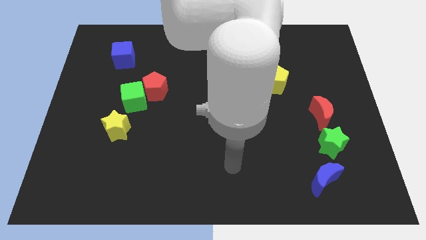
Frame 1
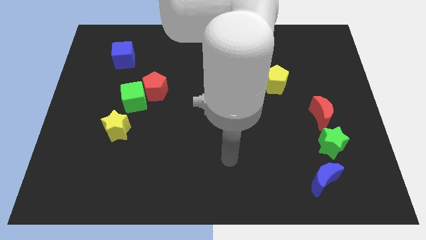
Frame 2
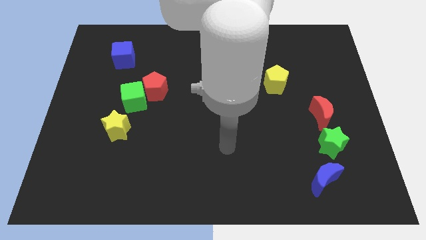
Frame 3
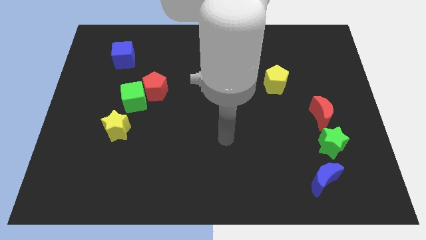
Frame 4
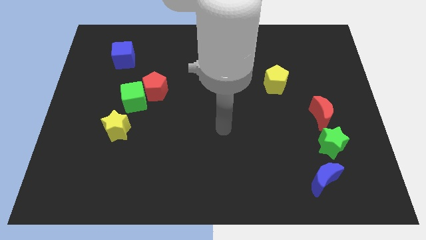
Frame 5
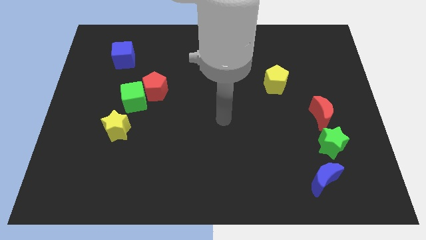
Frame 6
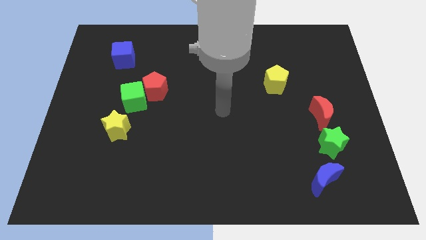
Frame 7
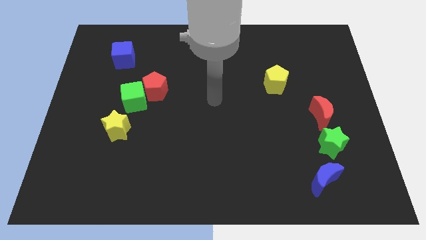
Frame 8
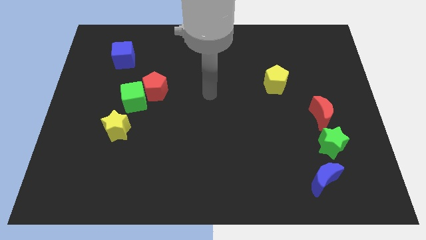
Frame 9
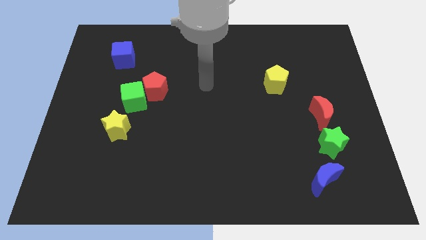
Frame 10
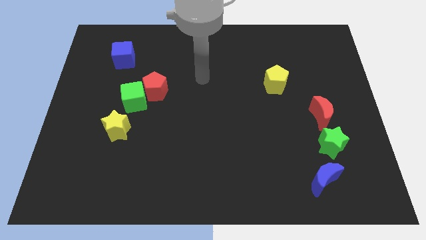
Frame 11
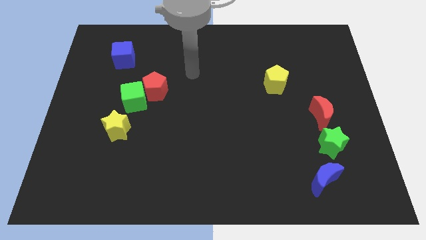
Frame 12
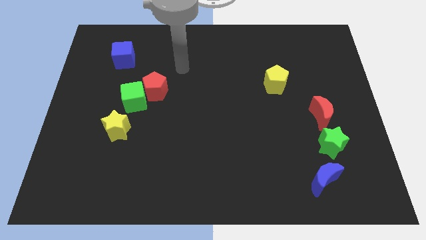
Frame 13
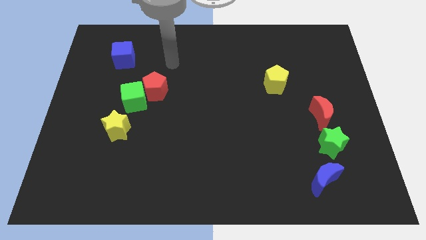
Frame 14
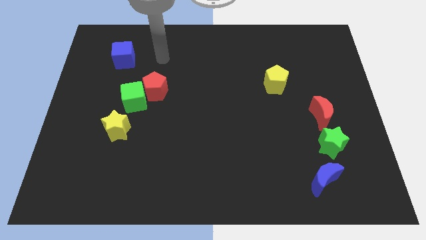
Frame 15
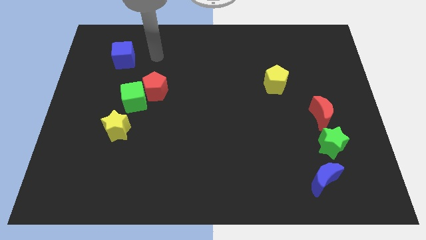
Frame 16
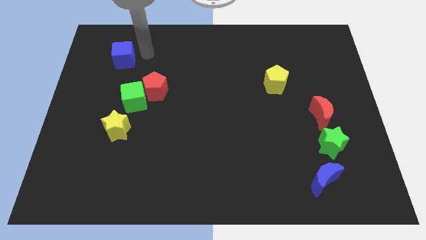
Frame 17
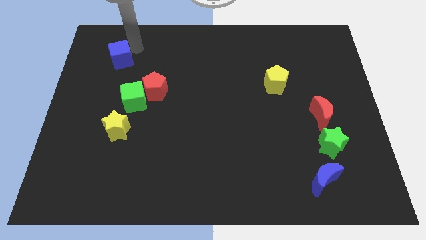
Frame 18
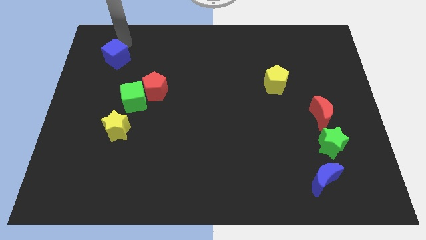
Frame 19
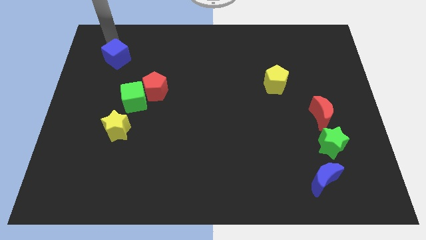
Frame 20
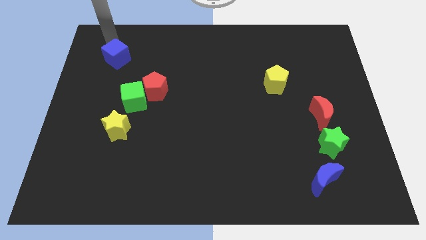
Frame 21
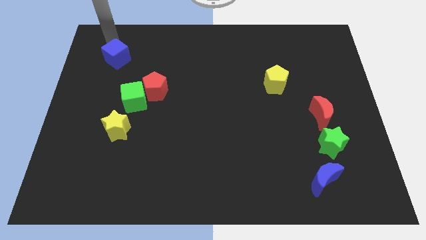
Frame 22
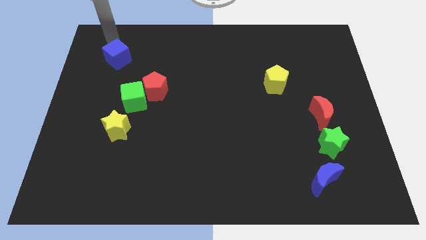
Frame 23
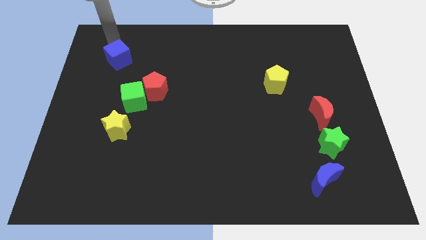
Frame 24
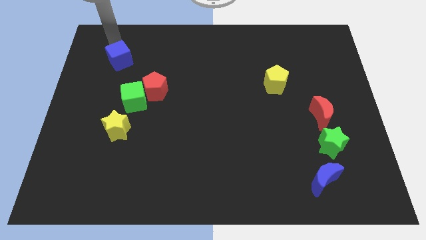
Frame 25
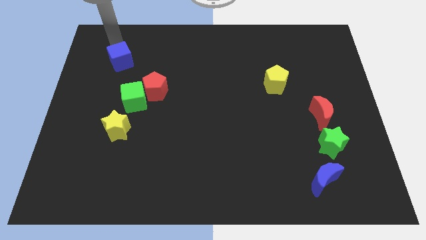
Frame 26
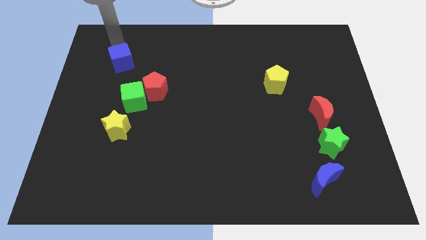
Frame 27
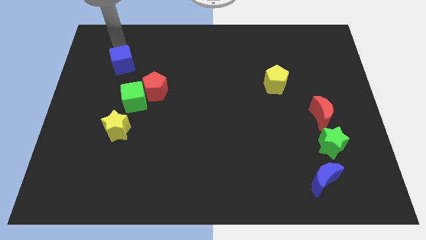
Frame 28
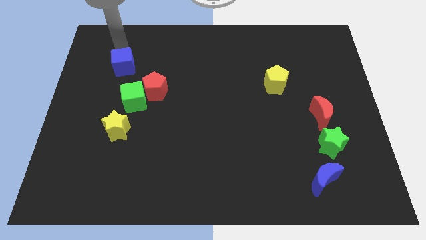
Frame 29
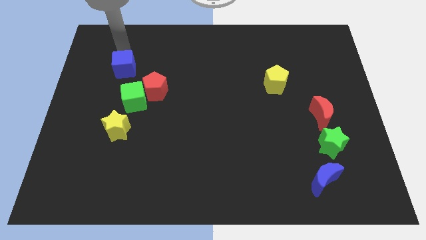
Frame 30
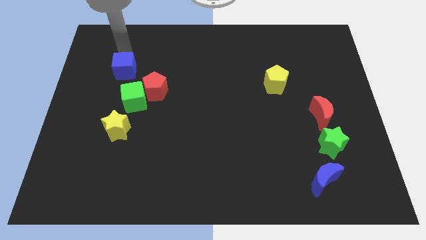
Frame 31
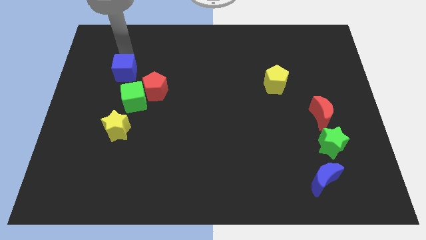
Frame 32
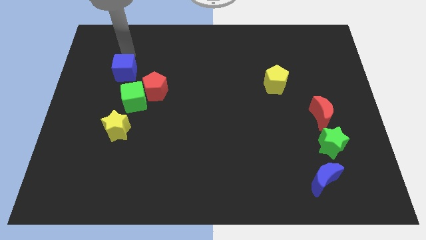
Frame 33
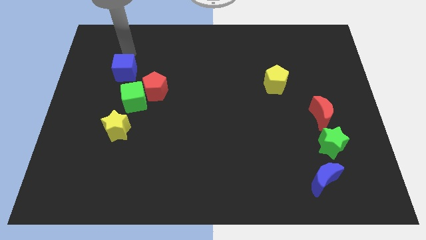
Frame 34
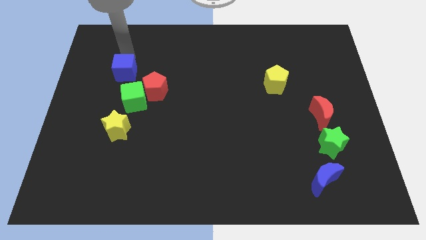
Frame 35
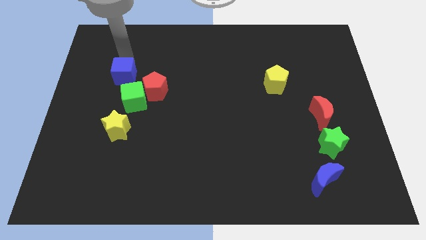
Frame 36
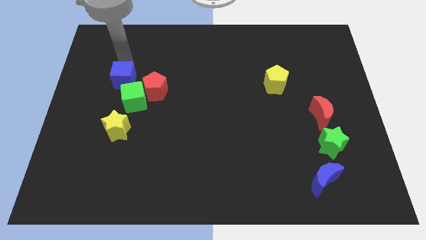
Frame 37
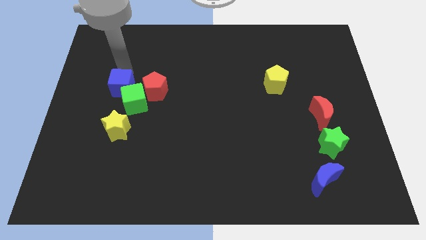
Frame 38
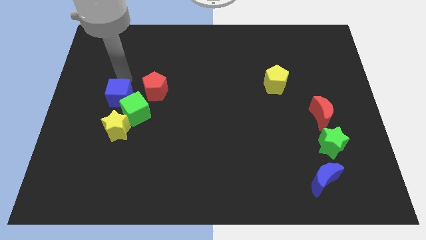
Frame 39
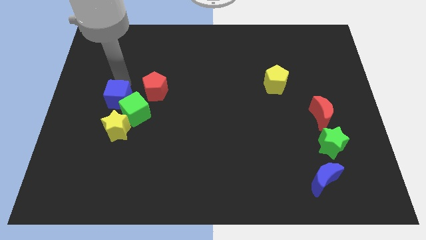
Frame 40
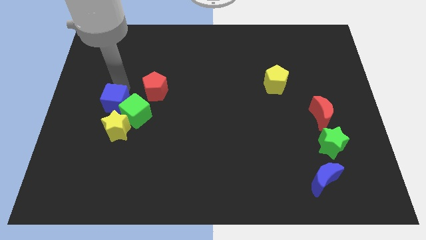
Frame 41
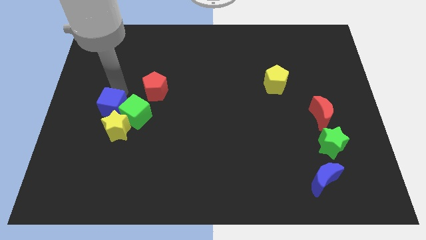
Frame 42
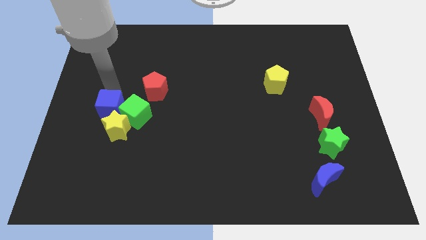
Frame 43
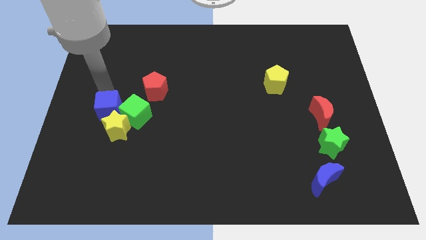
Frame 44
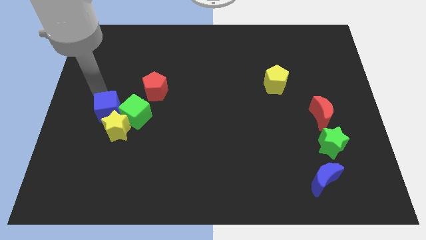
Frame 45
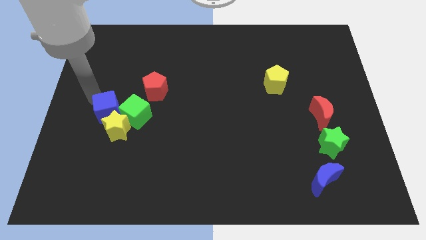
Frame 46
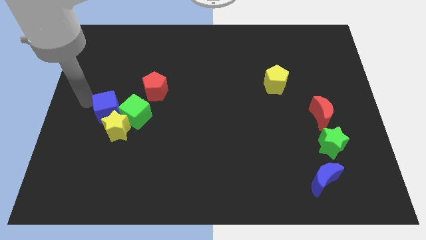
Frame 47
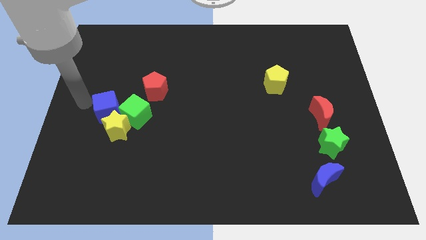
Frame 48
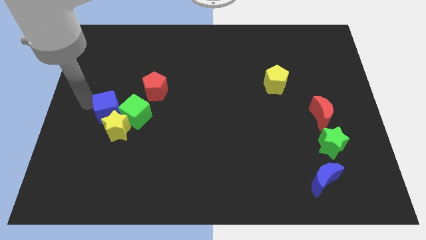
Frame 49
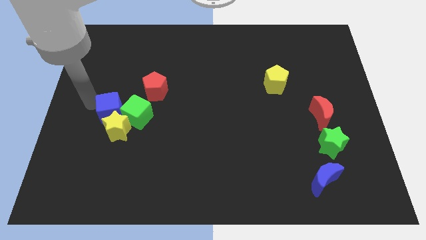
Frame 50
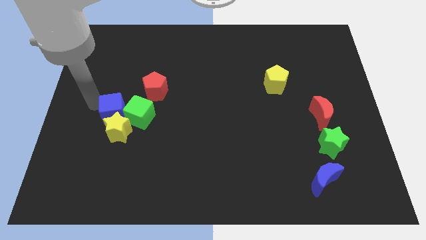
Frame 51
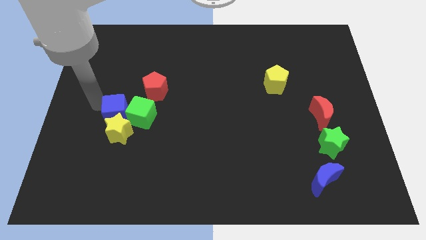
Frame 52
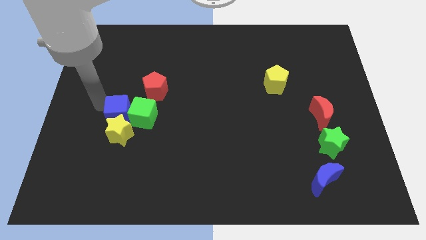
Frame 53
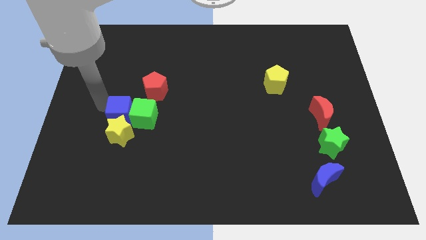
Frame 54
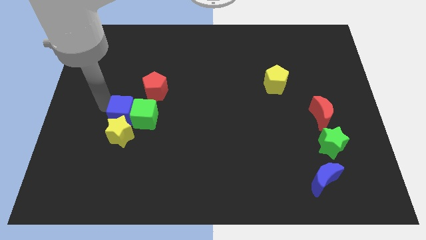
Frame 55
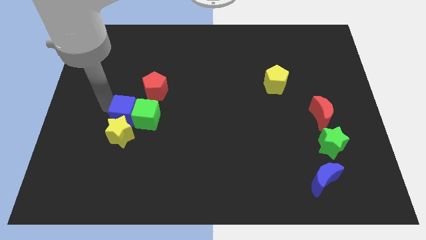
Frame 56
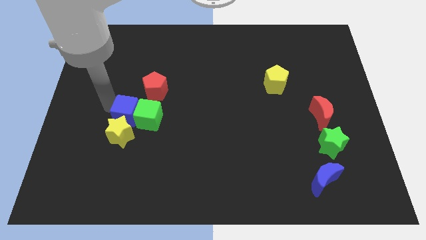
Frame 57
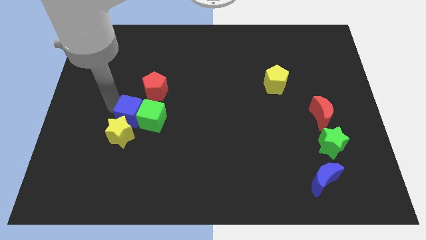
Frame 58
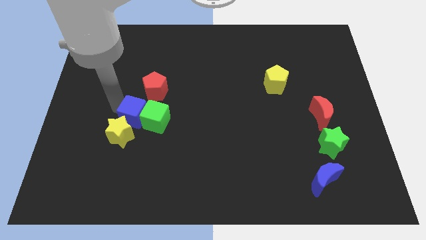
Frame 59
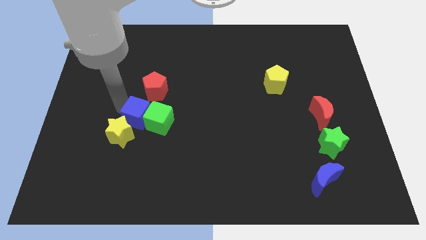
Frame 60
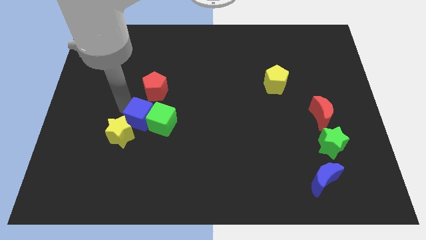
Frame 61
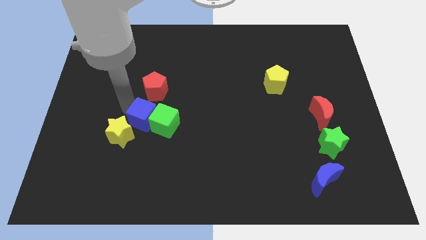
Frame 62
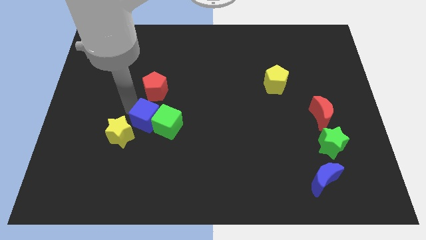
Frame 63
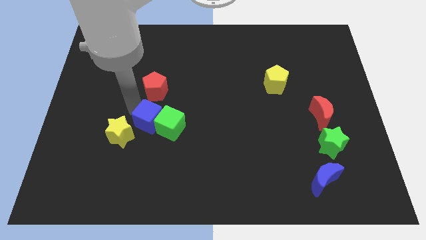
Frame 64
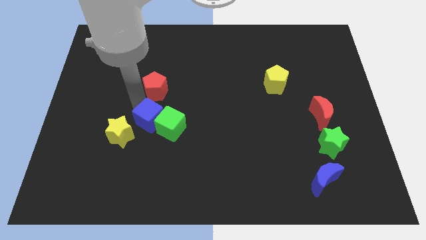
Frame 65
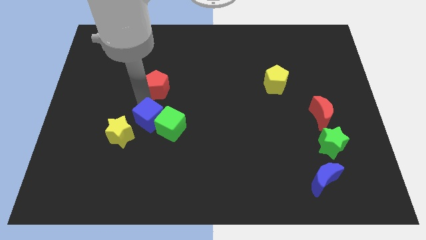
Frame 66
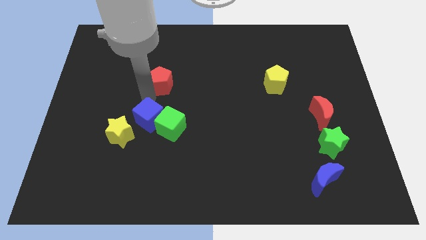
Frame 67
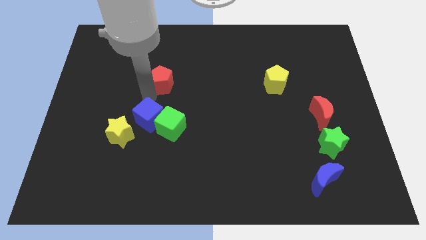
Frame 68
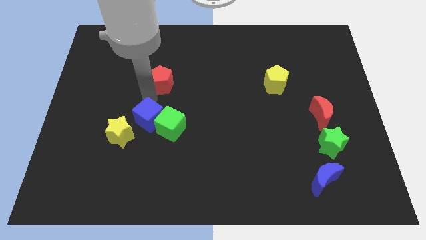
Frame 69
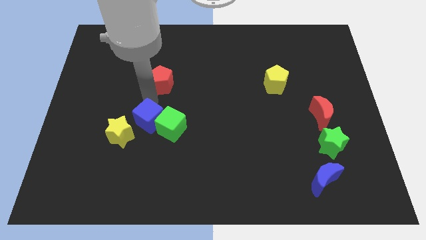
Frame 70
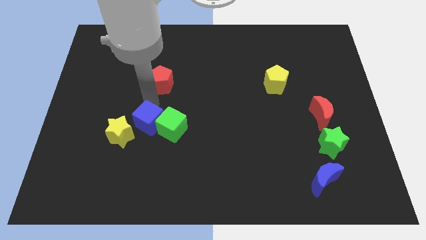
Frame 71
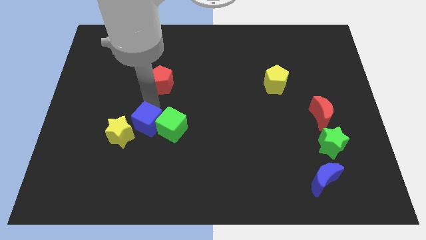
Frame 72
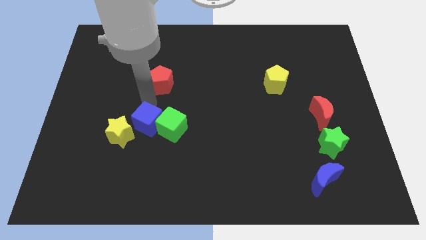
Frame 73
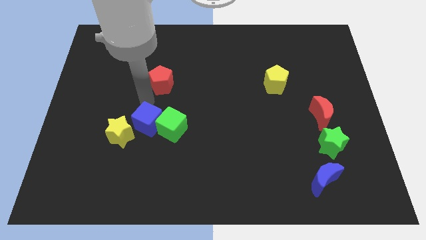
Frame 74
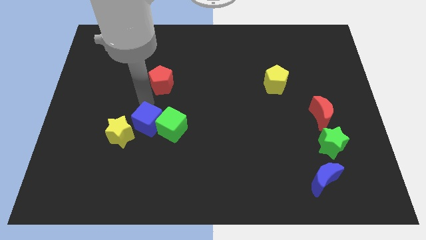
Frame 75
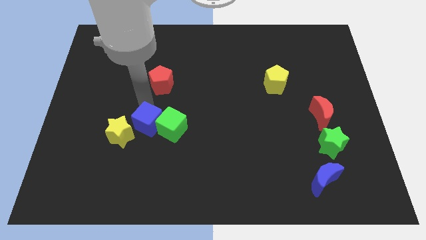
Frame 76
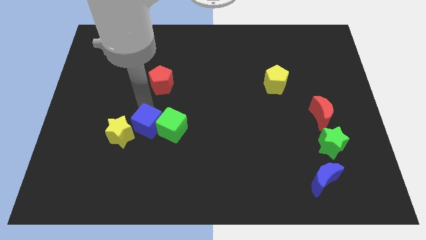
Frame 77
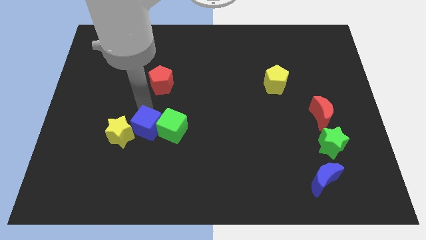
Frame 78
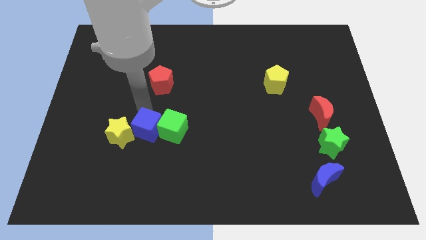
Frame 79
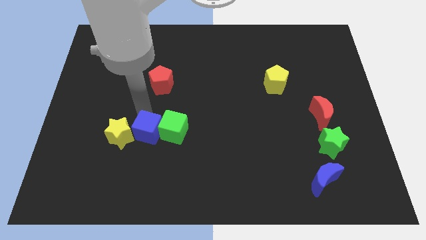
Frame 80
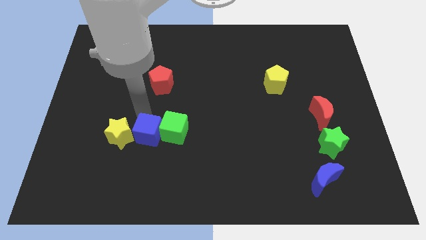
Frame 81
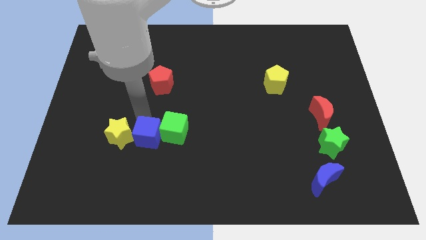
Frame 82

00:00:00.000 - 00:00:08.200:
move the blue cube diagonally down and to the right of the yellow star
